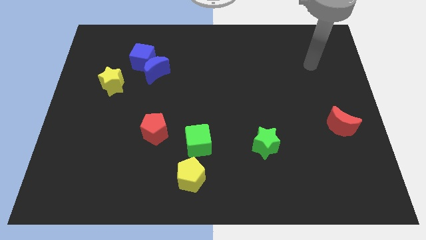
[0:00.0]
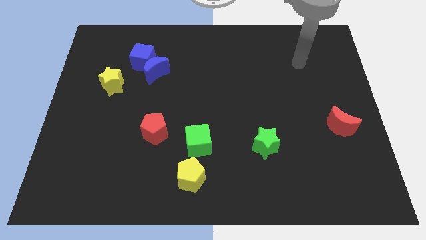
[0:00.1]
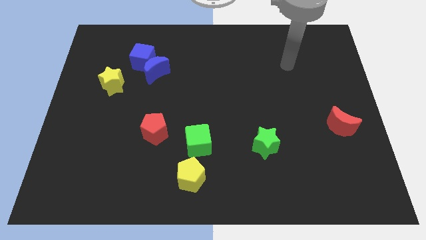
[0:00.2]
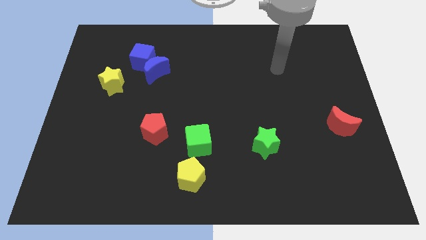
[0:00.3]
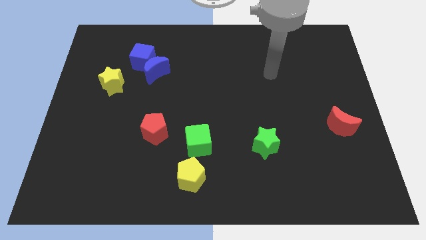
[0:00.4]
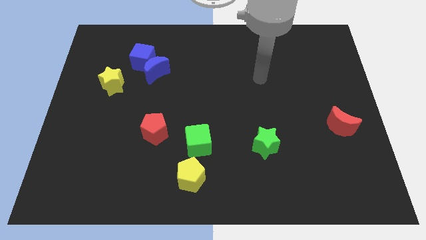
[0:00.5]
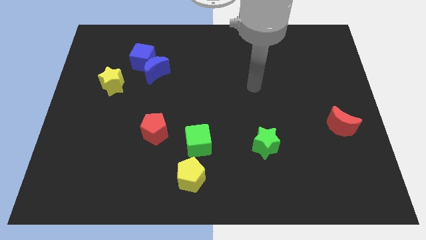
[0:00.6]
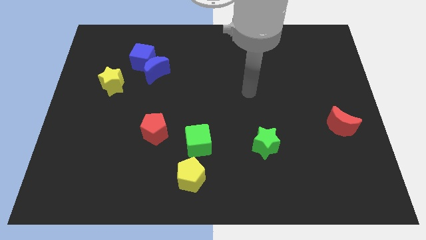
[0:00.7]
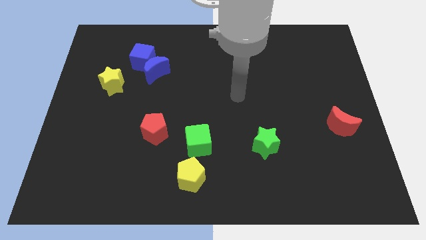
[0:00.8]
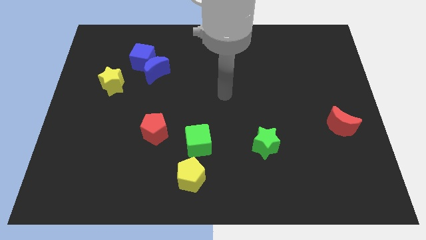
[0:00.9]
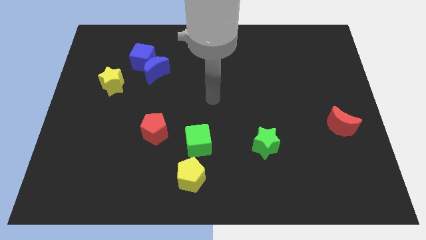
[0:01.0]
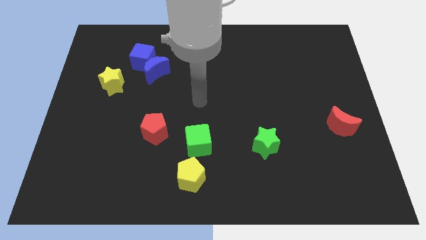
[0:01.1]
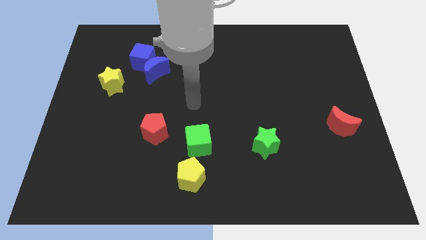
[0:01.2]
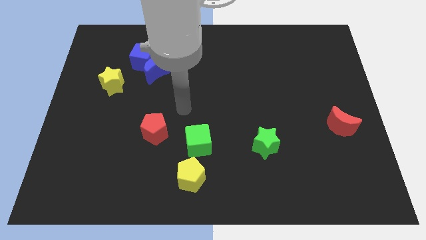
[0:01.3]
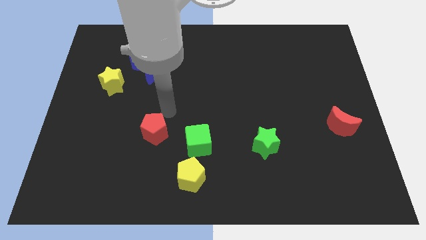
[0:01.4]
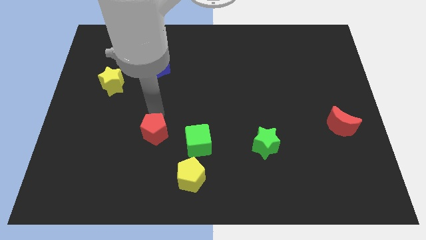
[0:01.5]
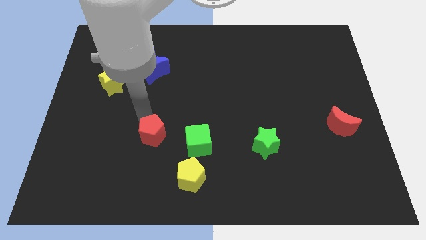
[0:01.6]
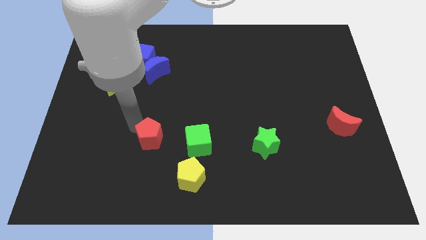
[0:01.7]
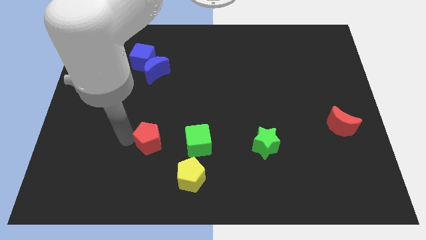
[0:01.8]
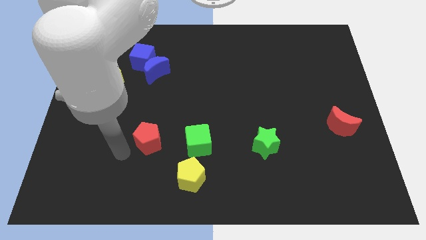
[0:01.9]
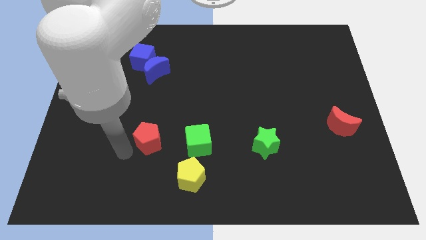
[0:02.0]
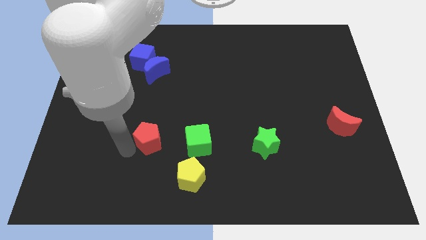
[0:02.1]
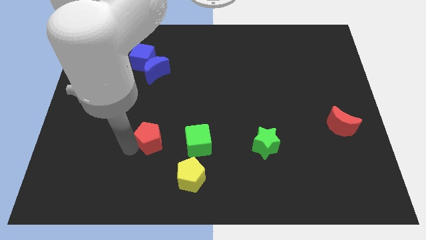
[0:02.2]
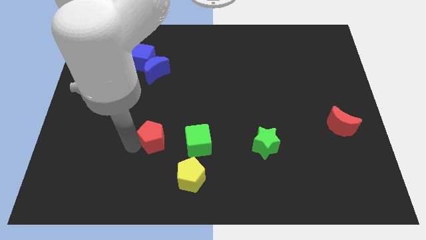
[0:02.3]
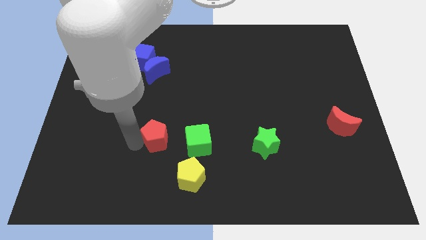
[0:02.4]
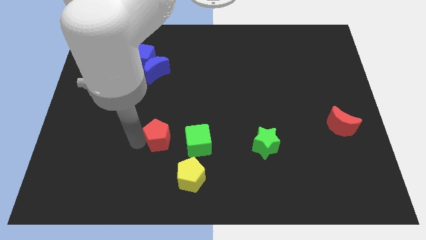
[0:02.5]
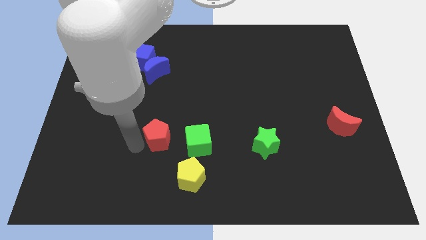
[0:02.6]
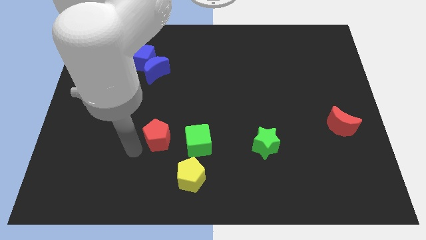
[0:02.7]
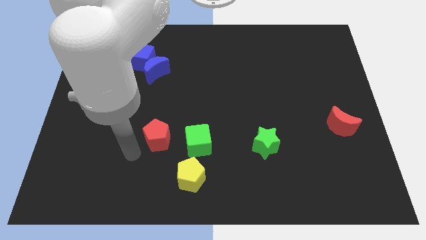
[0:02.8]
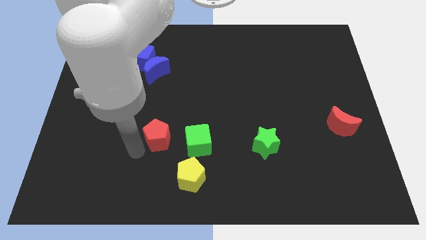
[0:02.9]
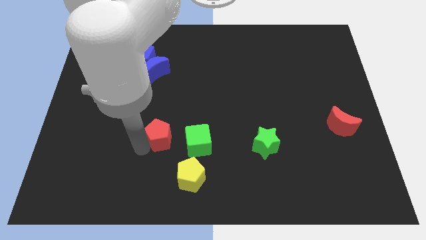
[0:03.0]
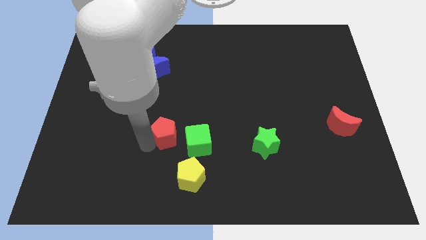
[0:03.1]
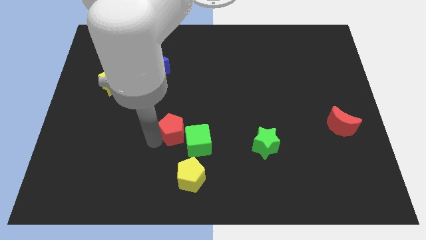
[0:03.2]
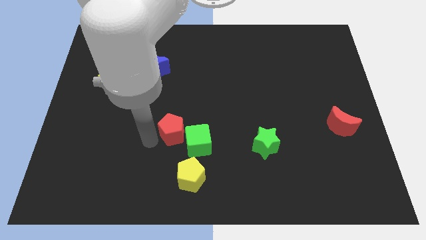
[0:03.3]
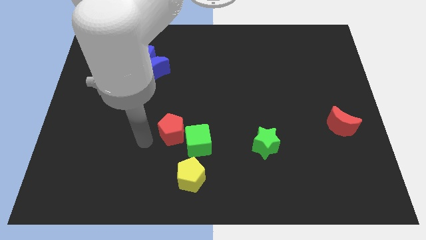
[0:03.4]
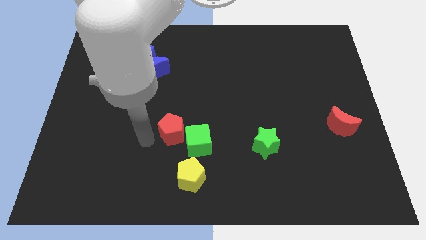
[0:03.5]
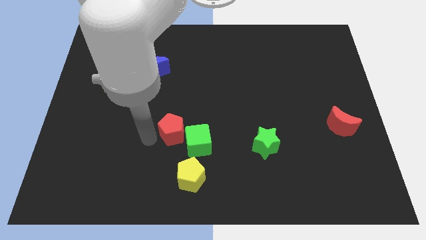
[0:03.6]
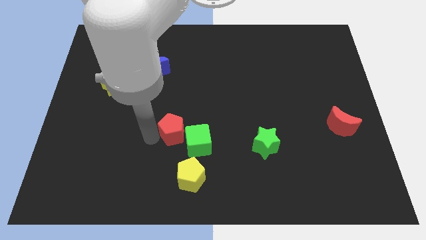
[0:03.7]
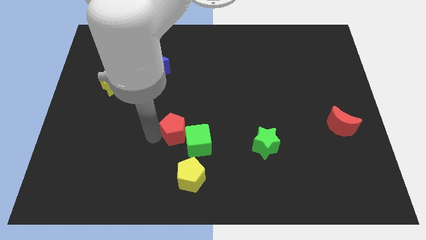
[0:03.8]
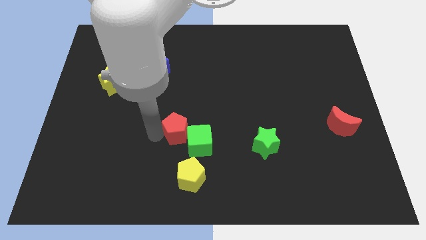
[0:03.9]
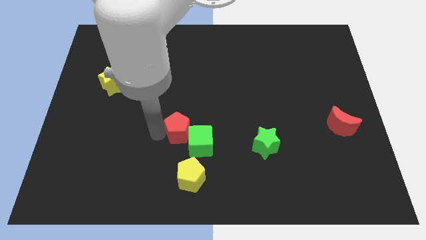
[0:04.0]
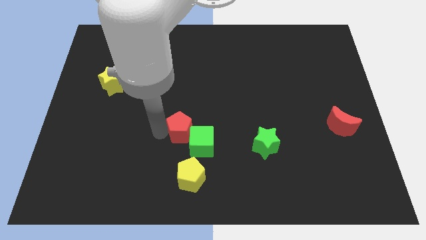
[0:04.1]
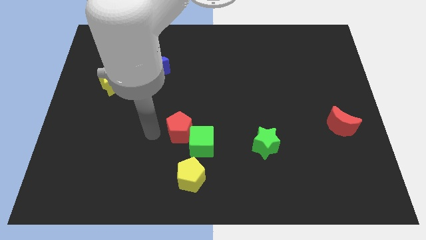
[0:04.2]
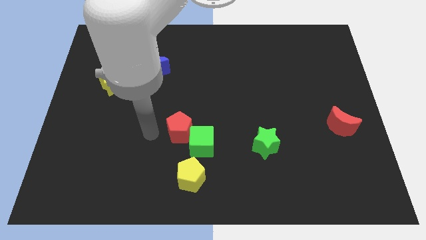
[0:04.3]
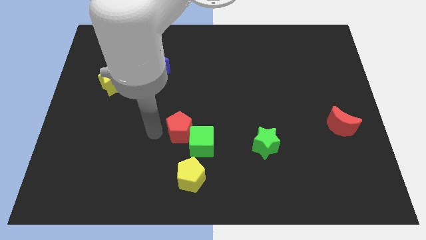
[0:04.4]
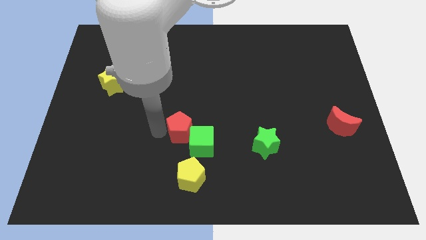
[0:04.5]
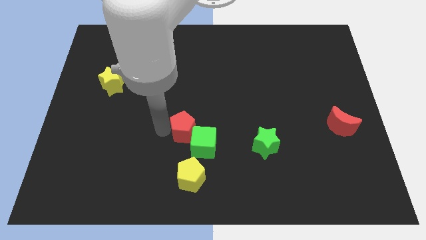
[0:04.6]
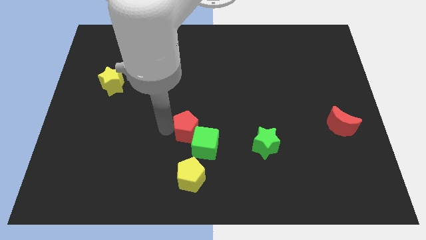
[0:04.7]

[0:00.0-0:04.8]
move the red pentagon slightly right
